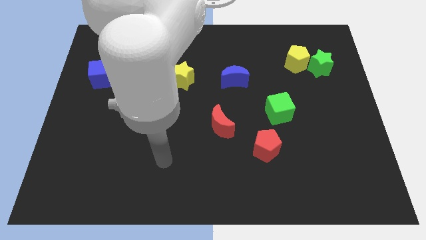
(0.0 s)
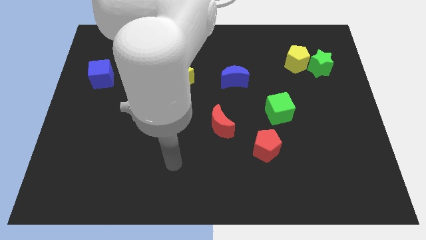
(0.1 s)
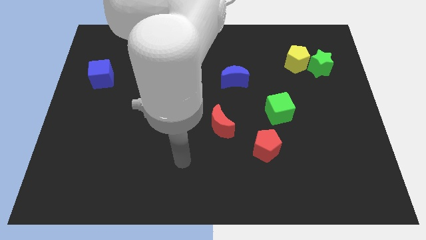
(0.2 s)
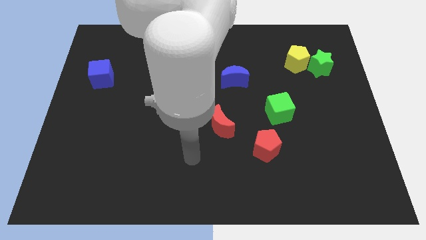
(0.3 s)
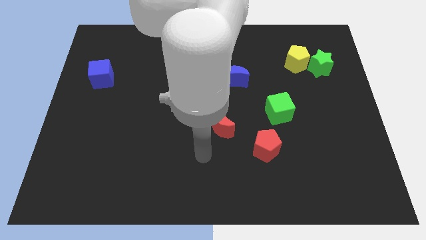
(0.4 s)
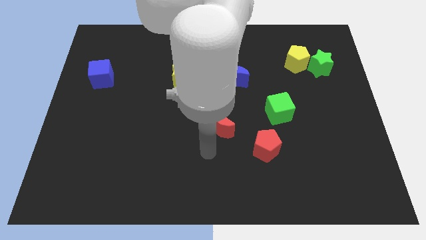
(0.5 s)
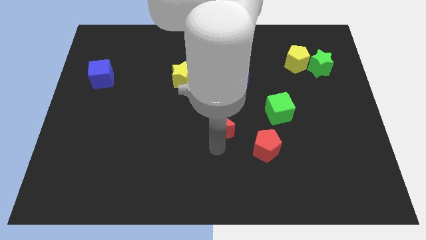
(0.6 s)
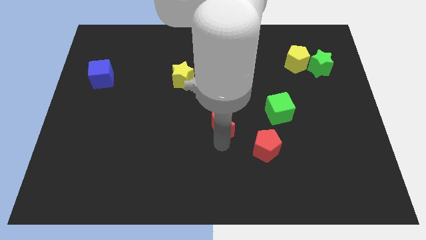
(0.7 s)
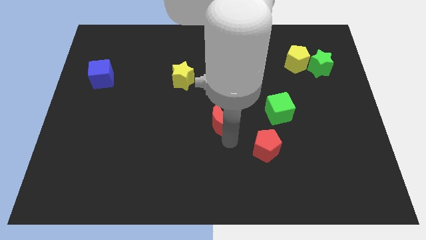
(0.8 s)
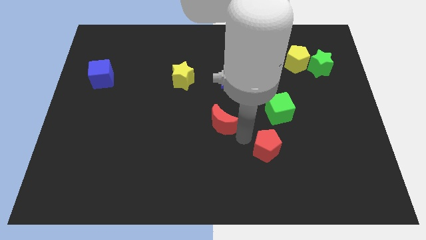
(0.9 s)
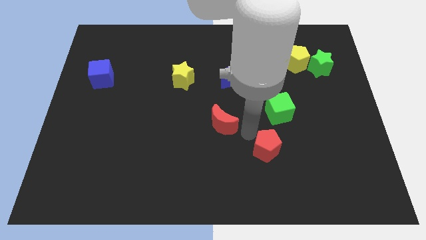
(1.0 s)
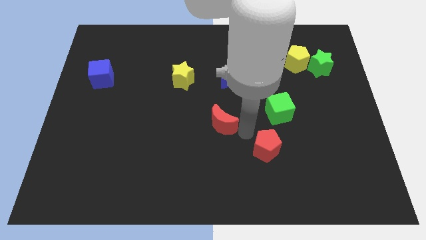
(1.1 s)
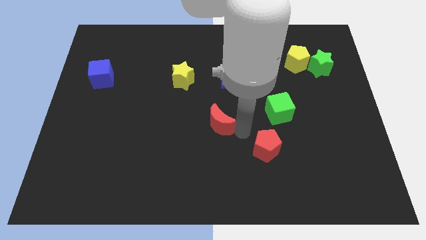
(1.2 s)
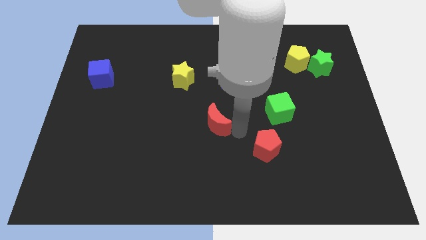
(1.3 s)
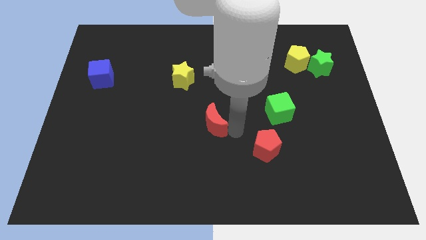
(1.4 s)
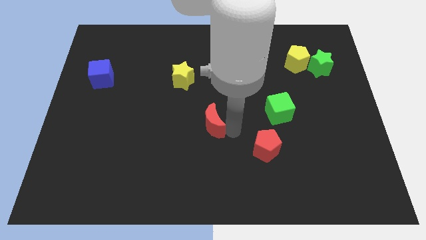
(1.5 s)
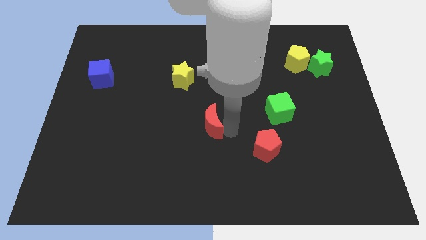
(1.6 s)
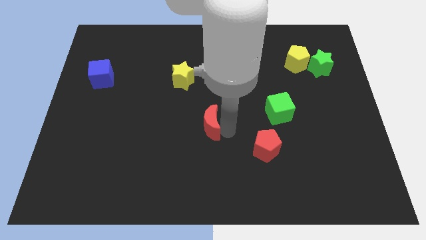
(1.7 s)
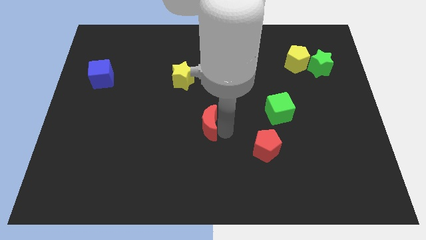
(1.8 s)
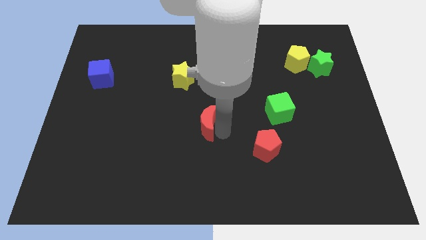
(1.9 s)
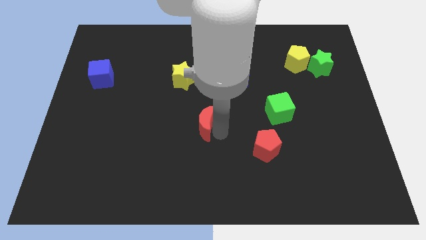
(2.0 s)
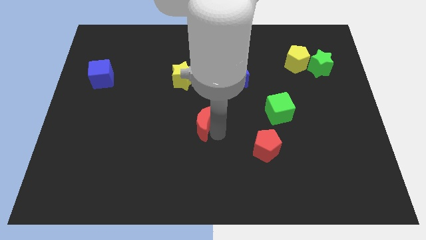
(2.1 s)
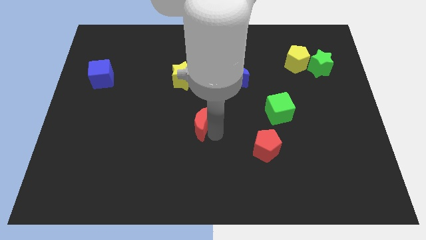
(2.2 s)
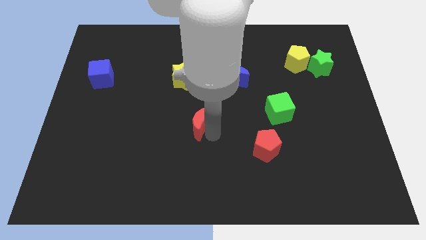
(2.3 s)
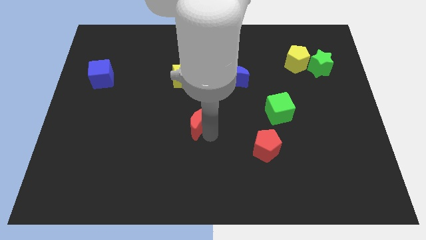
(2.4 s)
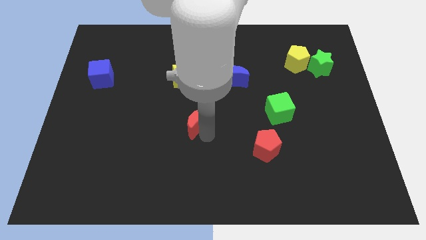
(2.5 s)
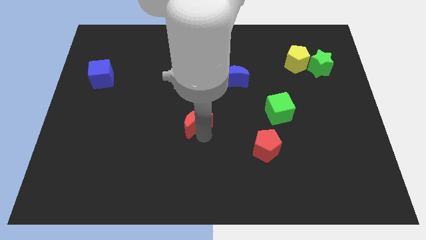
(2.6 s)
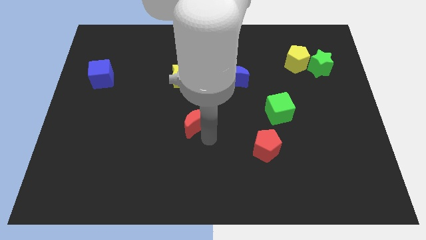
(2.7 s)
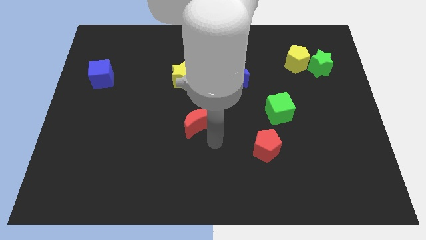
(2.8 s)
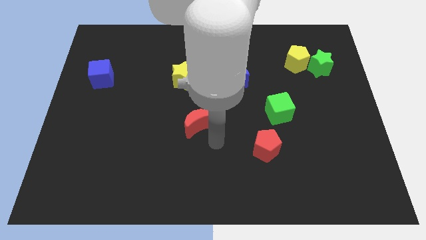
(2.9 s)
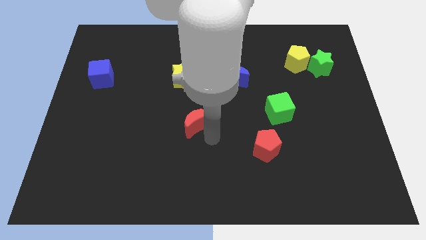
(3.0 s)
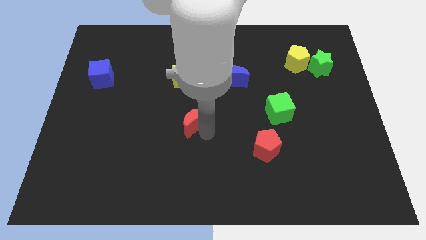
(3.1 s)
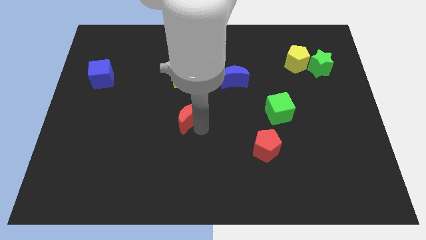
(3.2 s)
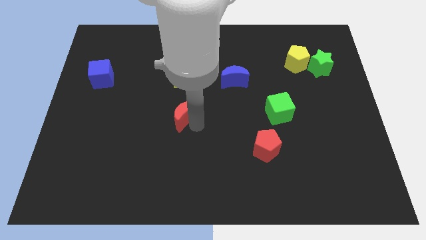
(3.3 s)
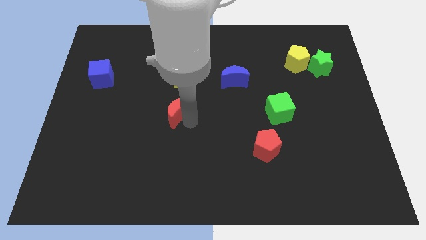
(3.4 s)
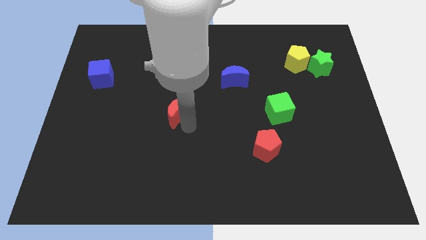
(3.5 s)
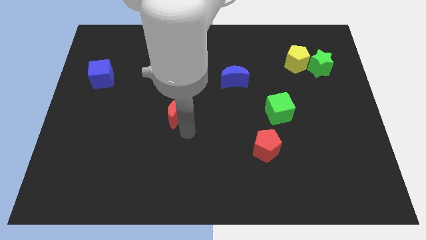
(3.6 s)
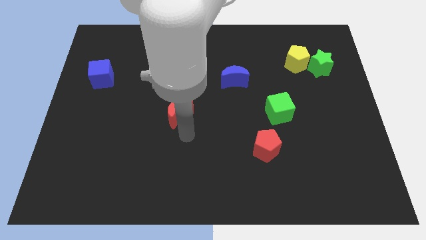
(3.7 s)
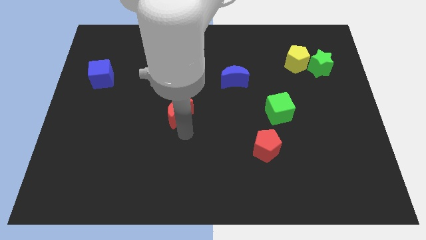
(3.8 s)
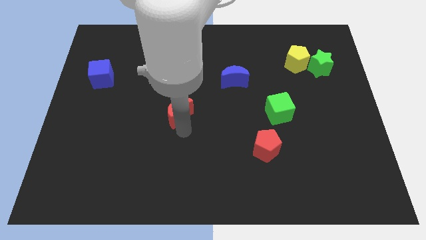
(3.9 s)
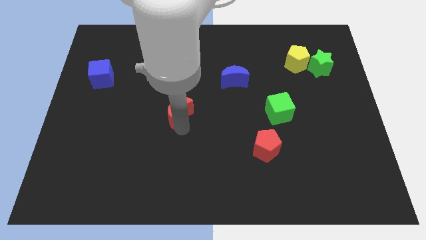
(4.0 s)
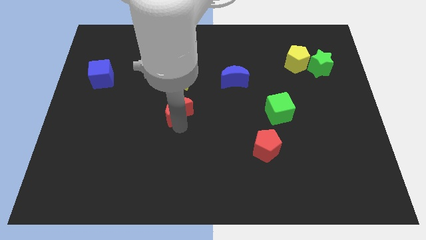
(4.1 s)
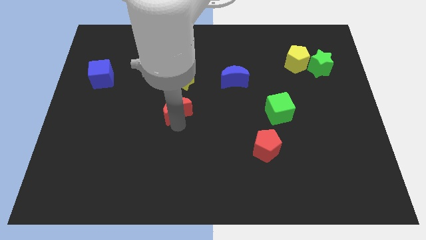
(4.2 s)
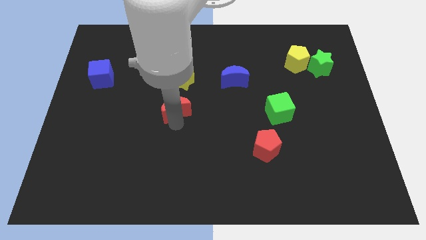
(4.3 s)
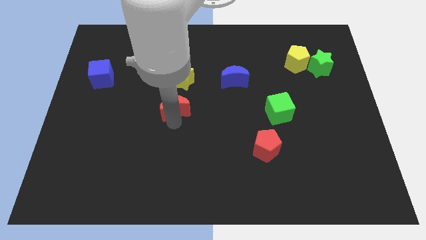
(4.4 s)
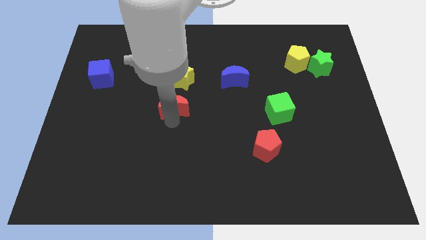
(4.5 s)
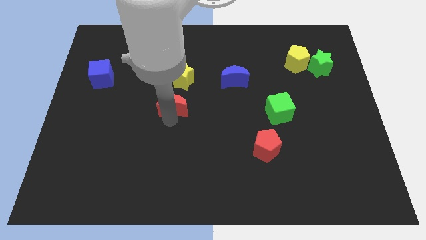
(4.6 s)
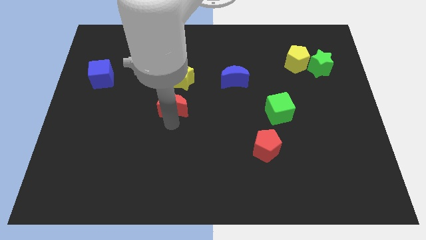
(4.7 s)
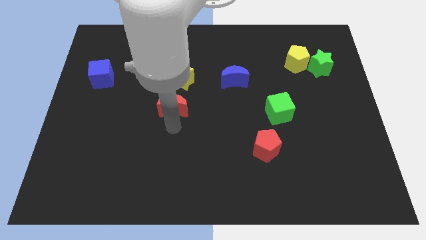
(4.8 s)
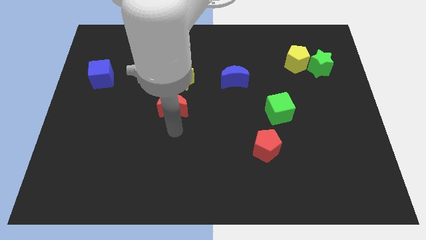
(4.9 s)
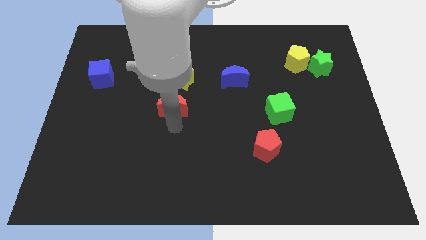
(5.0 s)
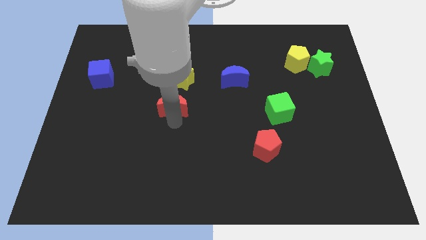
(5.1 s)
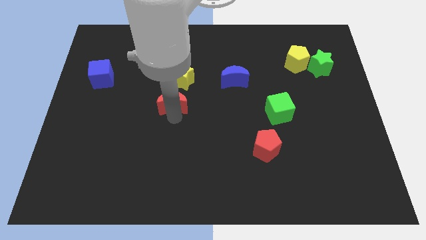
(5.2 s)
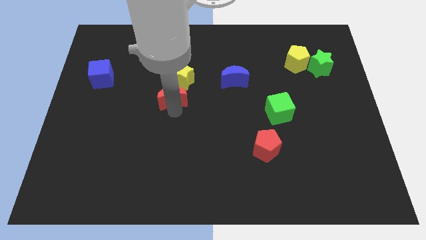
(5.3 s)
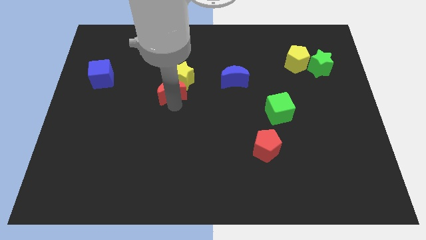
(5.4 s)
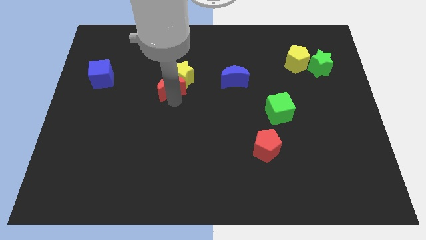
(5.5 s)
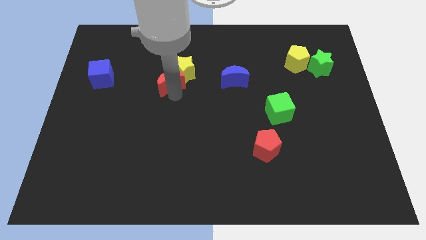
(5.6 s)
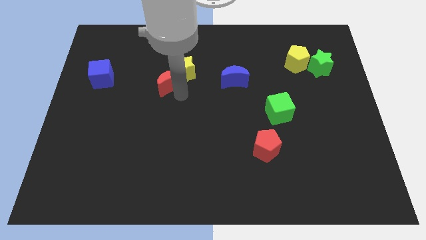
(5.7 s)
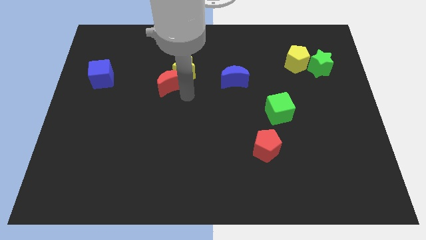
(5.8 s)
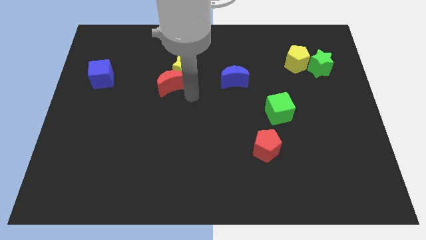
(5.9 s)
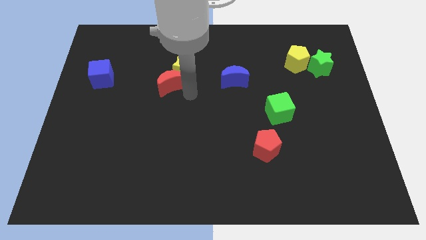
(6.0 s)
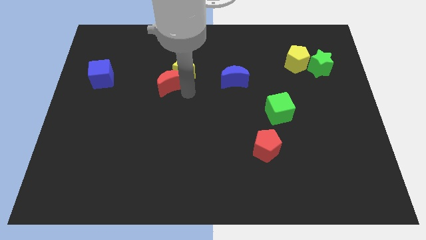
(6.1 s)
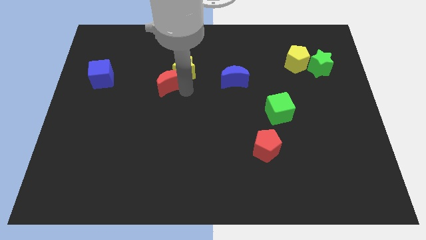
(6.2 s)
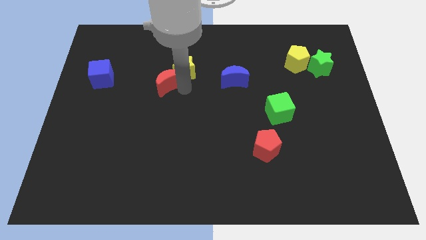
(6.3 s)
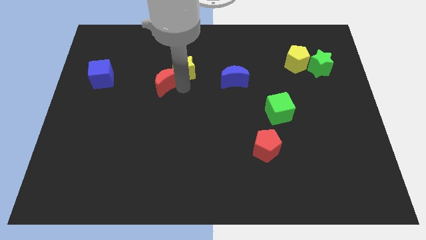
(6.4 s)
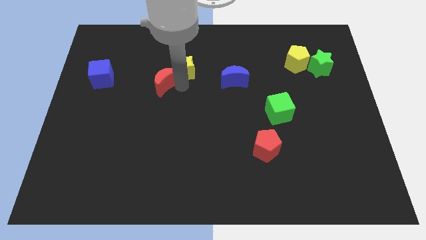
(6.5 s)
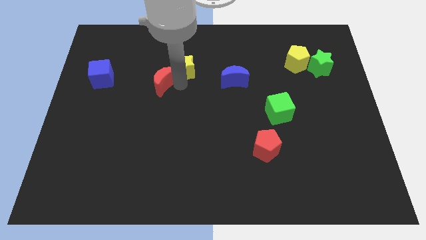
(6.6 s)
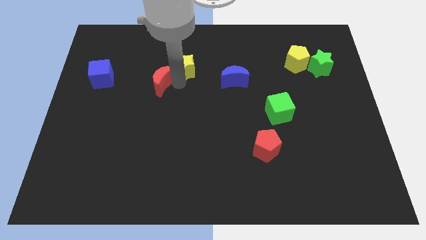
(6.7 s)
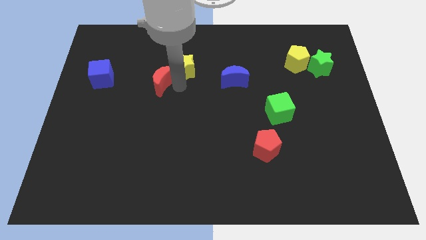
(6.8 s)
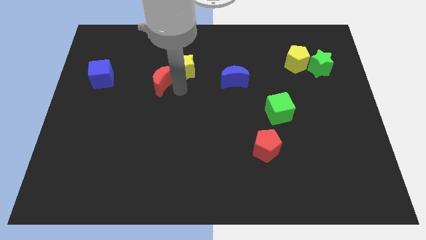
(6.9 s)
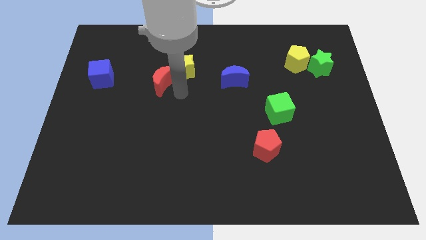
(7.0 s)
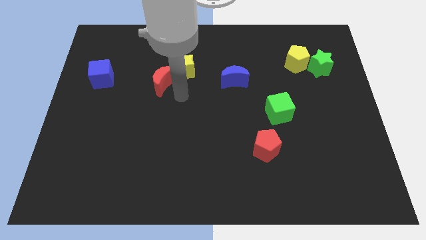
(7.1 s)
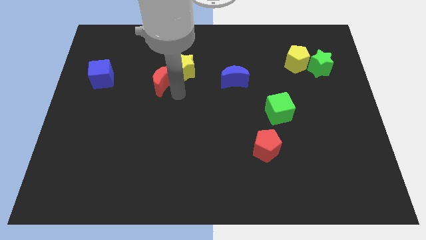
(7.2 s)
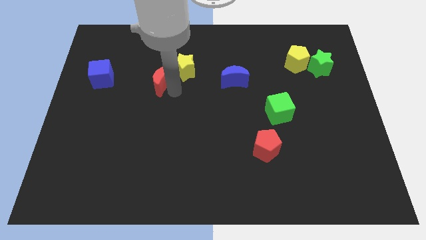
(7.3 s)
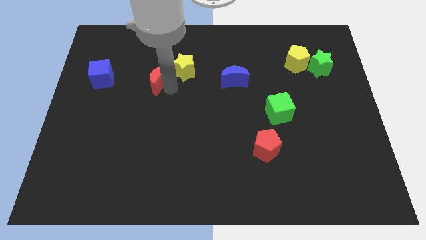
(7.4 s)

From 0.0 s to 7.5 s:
push the red moon upwards and then to the left

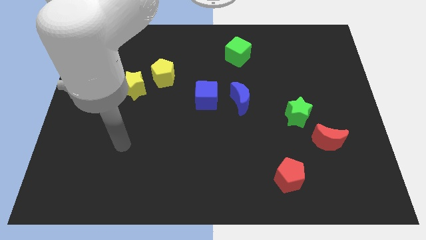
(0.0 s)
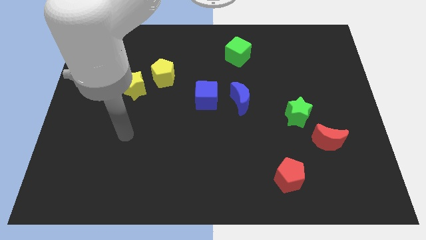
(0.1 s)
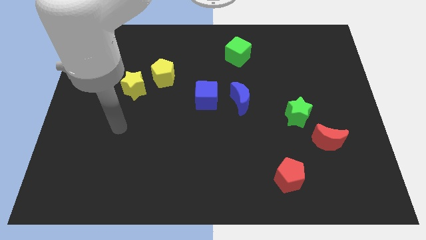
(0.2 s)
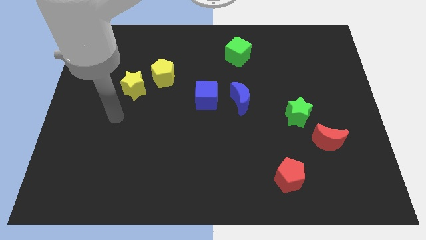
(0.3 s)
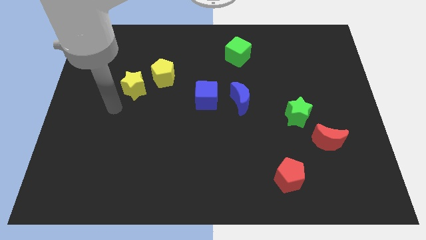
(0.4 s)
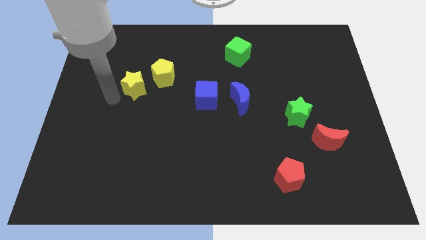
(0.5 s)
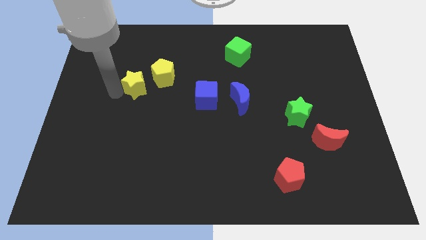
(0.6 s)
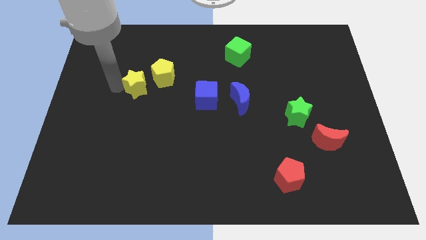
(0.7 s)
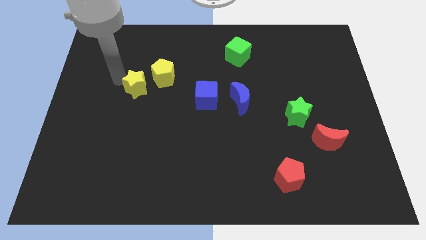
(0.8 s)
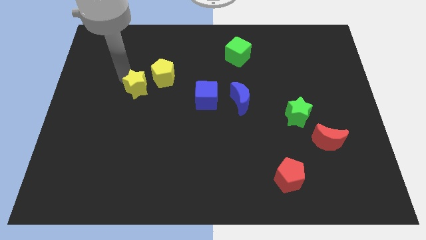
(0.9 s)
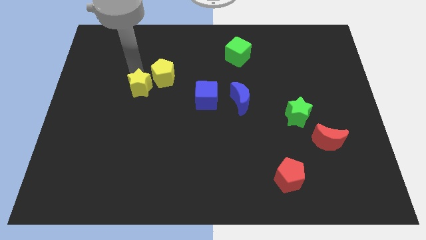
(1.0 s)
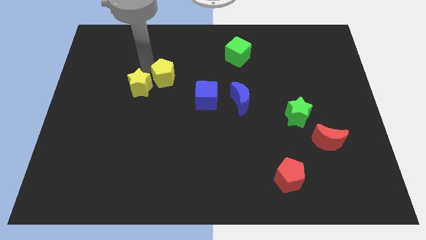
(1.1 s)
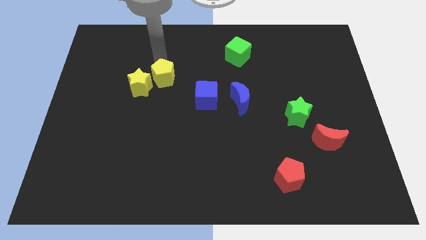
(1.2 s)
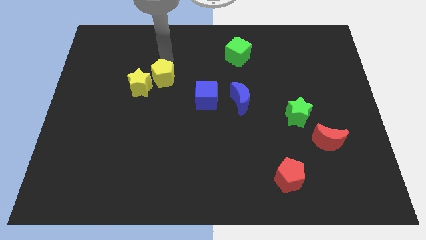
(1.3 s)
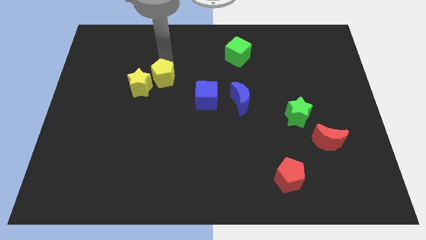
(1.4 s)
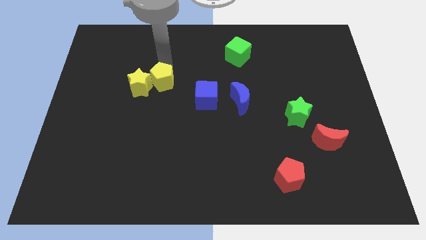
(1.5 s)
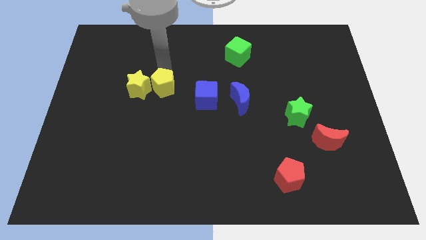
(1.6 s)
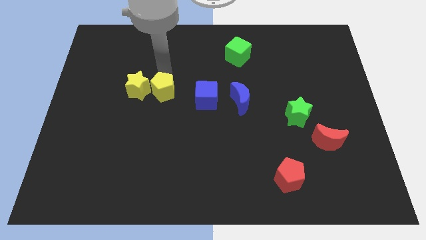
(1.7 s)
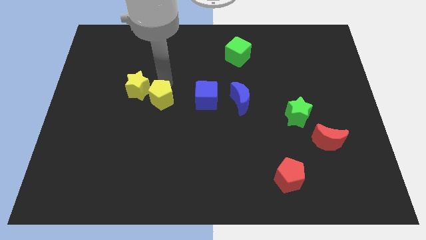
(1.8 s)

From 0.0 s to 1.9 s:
slightly slide the yellow pentagon downwards
